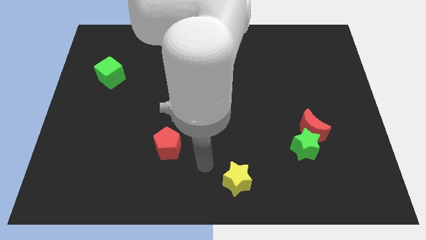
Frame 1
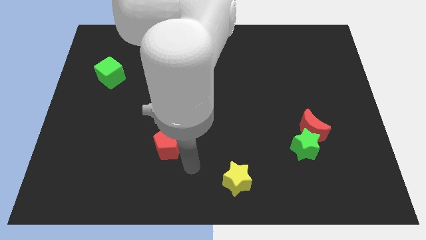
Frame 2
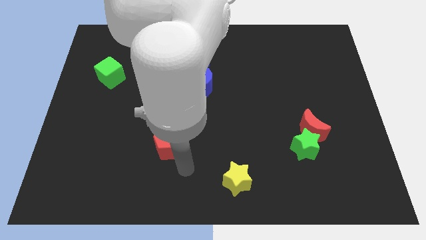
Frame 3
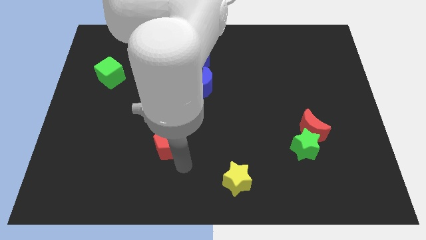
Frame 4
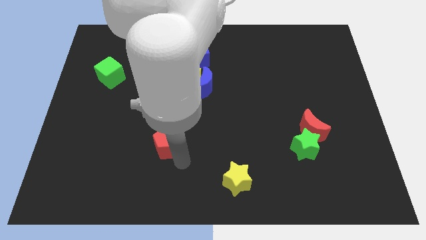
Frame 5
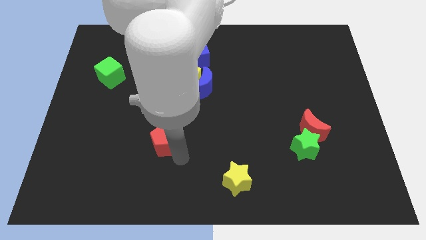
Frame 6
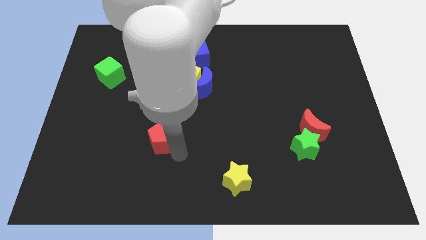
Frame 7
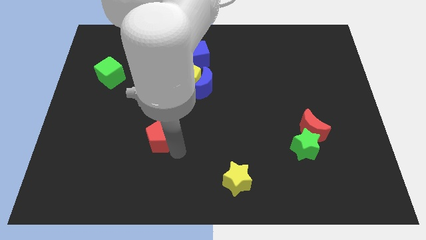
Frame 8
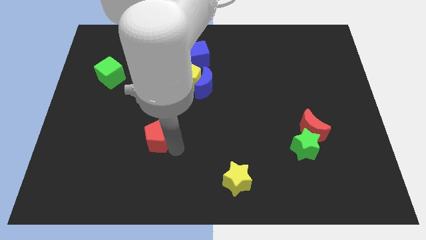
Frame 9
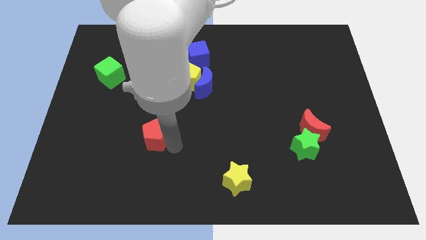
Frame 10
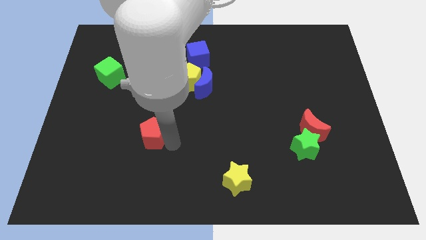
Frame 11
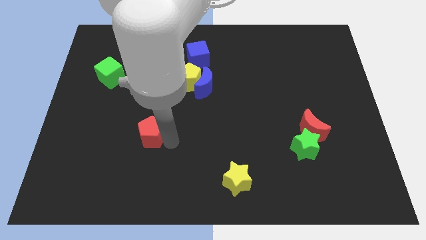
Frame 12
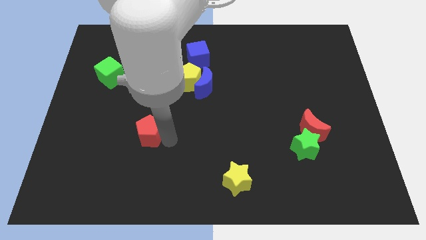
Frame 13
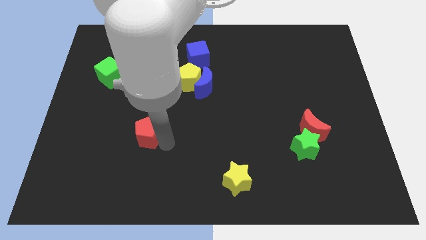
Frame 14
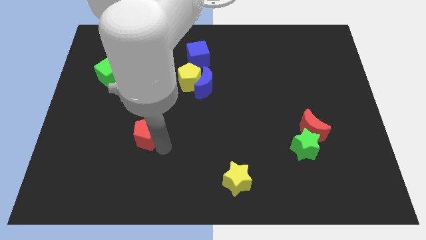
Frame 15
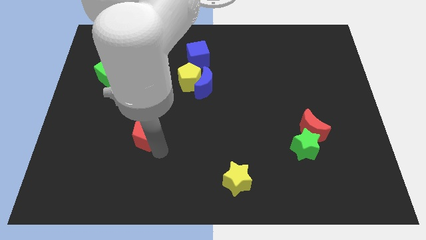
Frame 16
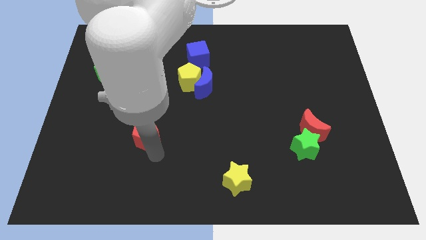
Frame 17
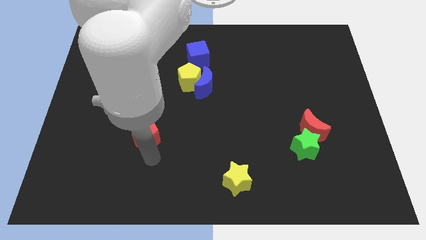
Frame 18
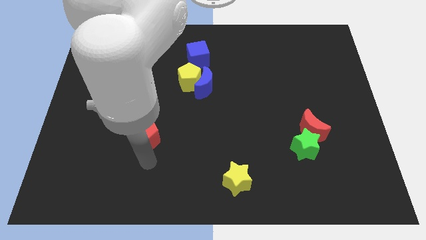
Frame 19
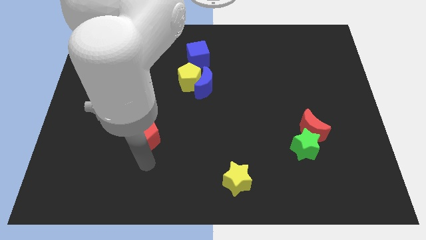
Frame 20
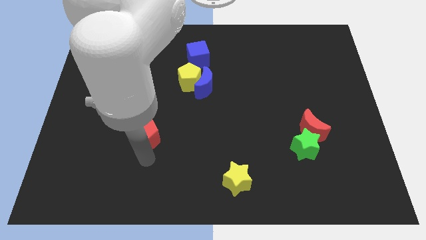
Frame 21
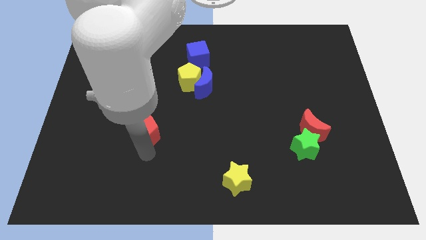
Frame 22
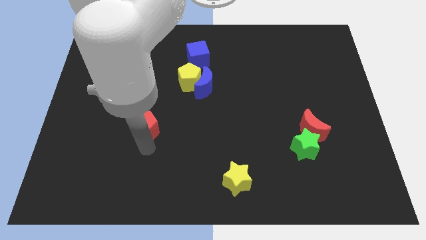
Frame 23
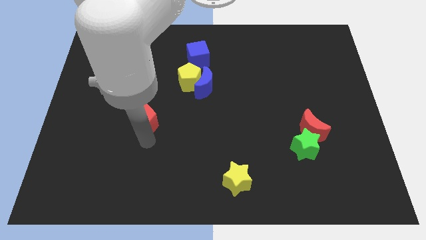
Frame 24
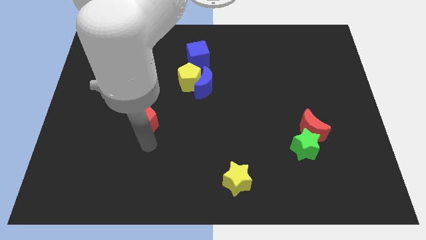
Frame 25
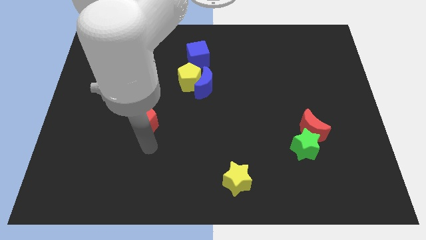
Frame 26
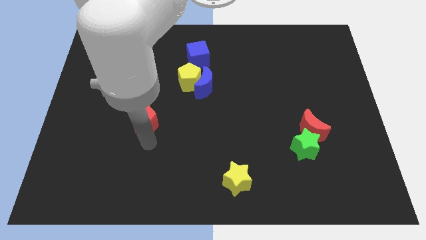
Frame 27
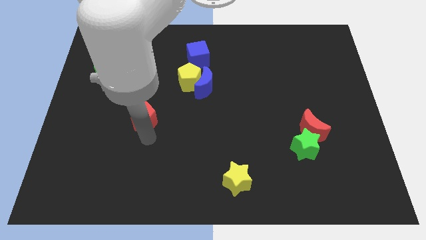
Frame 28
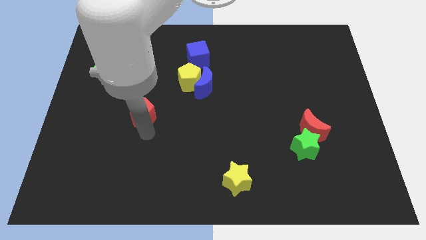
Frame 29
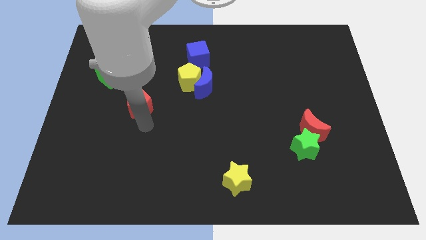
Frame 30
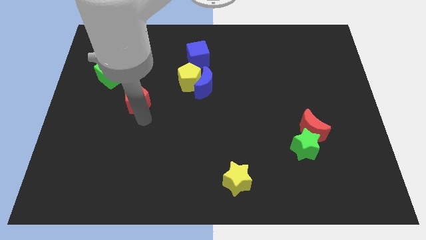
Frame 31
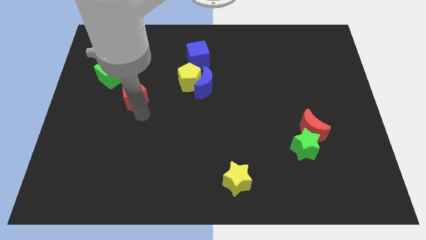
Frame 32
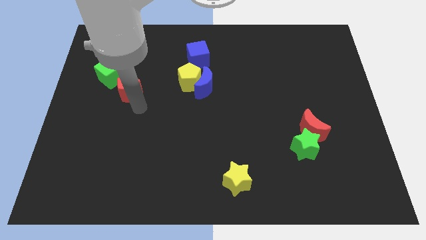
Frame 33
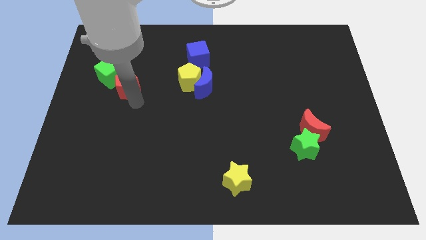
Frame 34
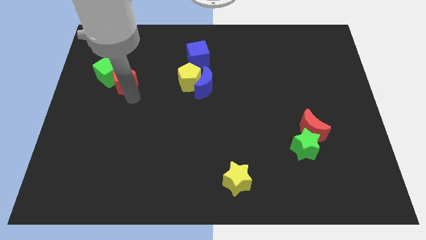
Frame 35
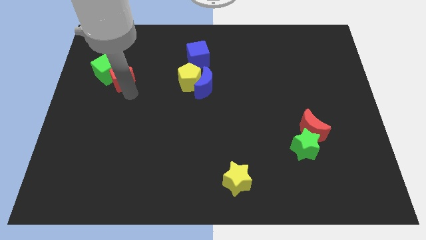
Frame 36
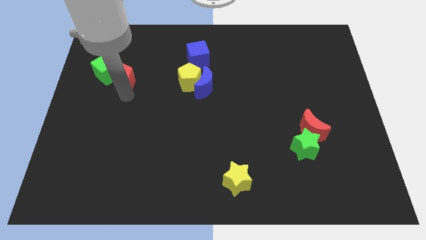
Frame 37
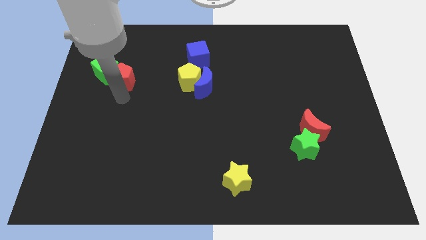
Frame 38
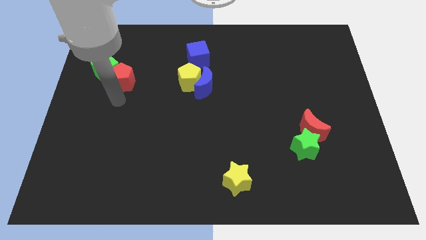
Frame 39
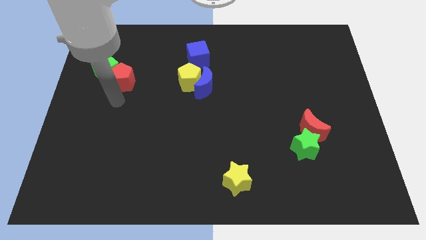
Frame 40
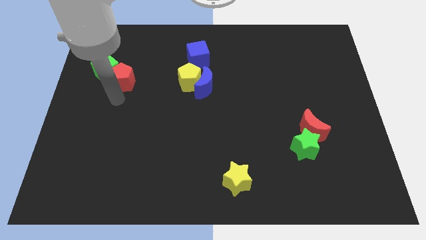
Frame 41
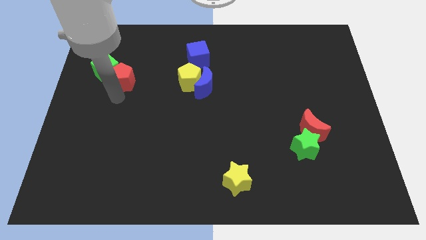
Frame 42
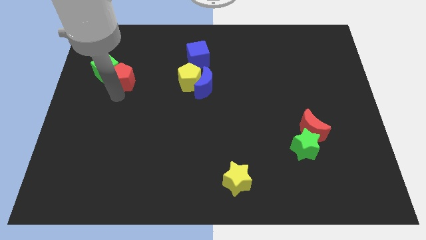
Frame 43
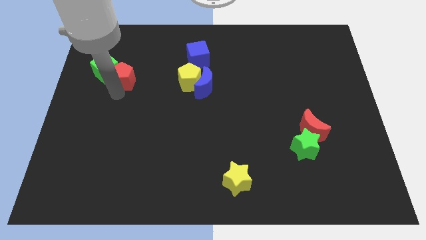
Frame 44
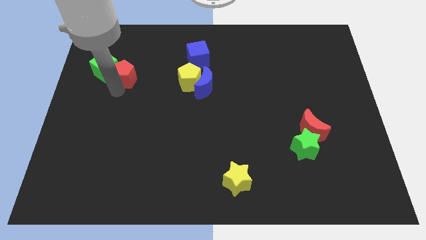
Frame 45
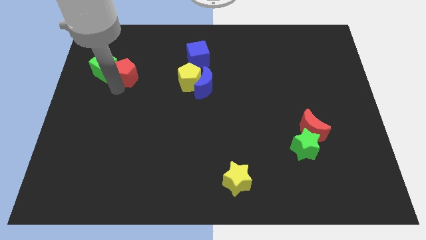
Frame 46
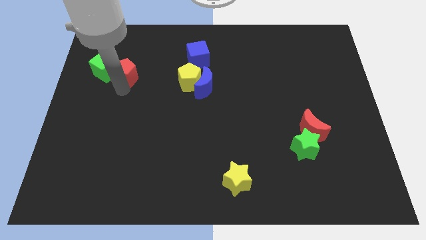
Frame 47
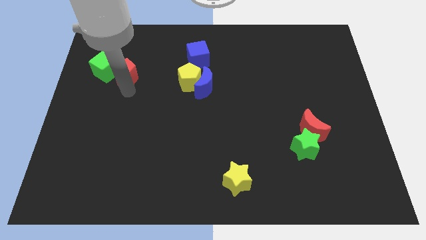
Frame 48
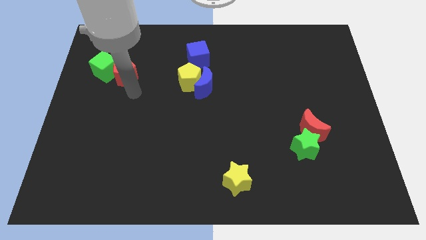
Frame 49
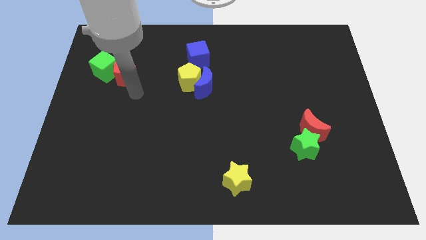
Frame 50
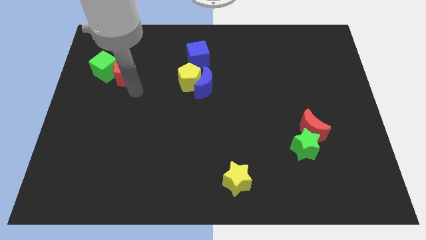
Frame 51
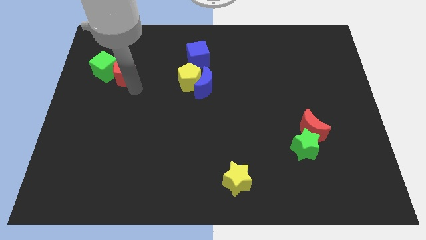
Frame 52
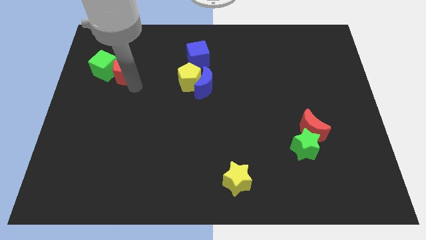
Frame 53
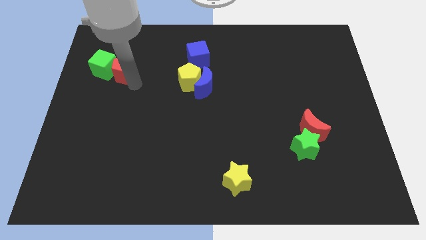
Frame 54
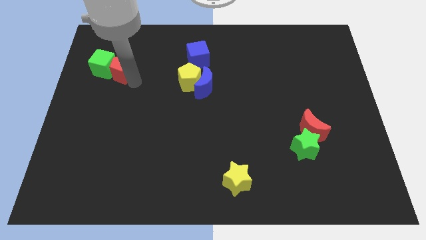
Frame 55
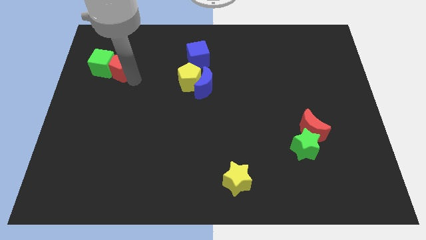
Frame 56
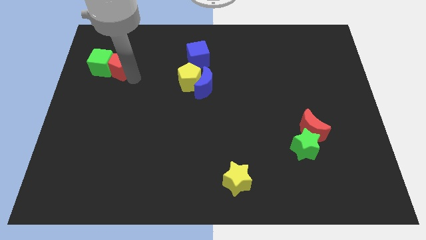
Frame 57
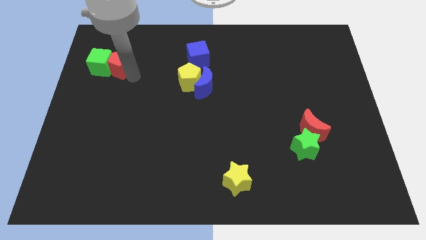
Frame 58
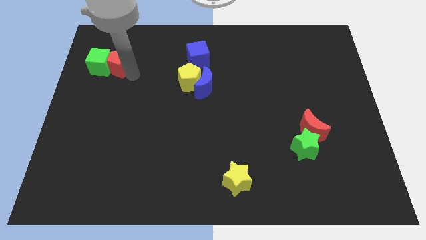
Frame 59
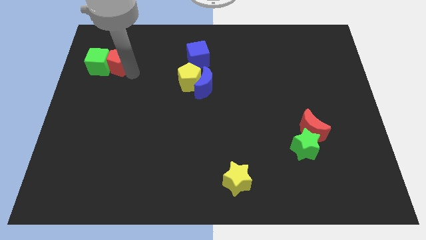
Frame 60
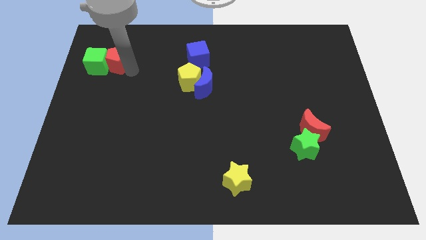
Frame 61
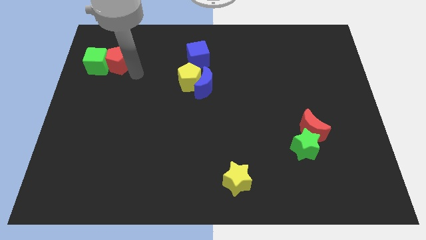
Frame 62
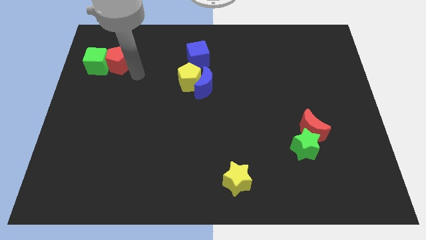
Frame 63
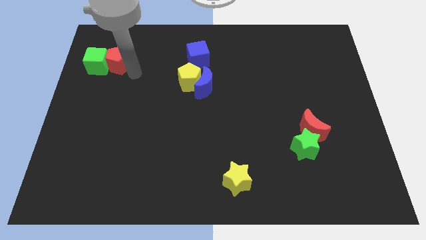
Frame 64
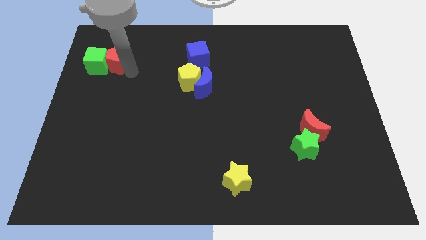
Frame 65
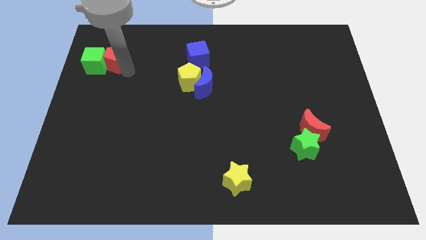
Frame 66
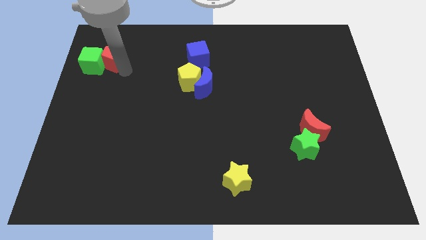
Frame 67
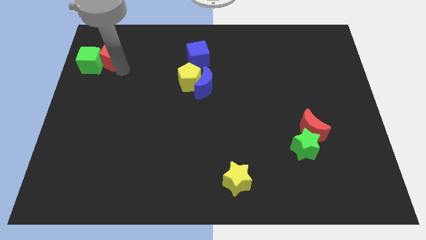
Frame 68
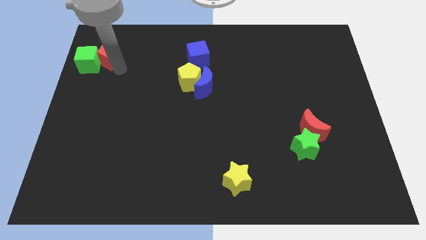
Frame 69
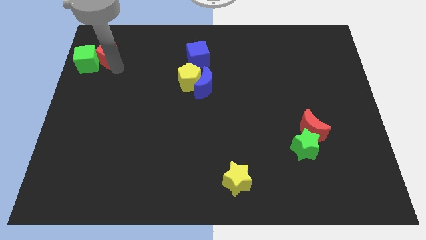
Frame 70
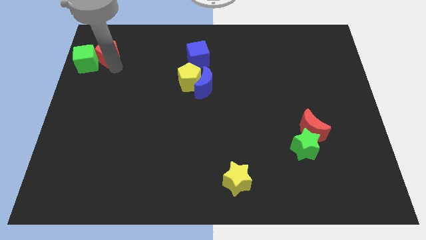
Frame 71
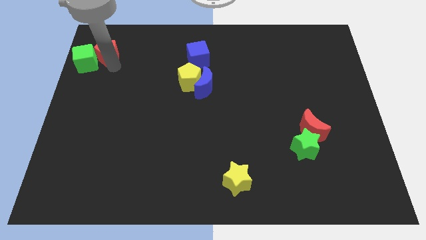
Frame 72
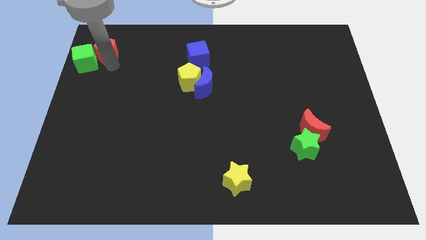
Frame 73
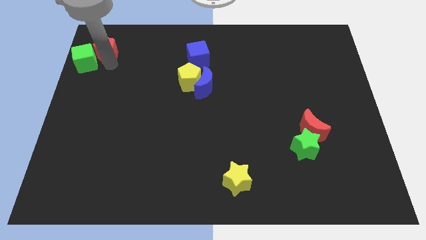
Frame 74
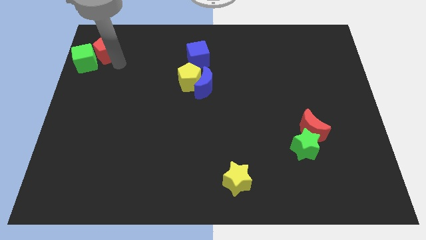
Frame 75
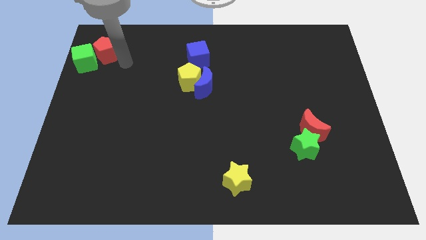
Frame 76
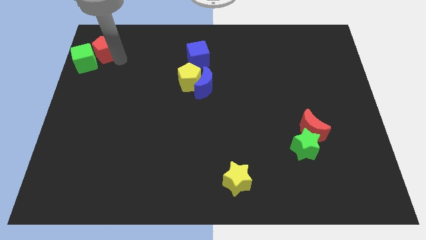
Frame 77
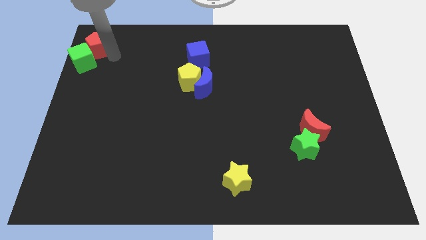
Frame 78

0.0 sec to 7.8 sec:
slide the red pentagon to the top left of the board
